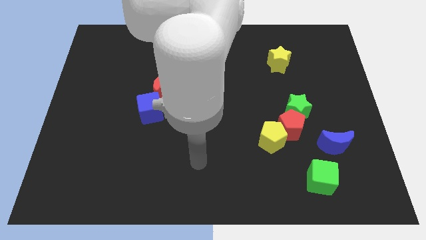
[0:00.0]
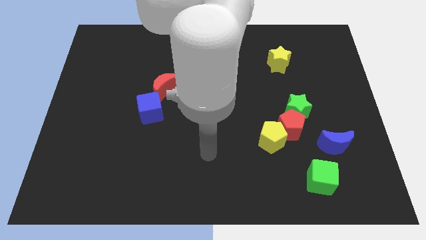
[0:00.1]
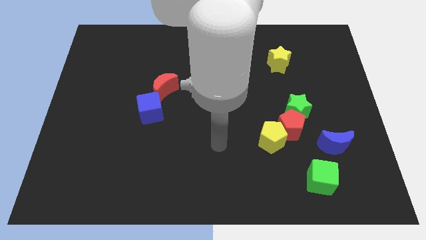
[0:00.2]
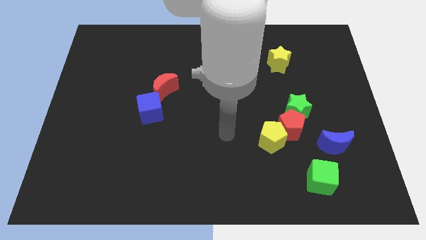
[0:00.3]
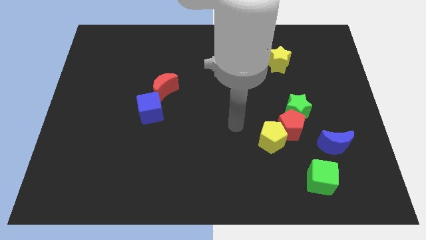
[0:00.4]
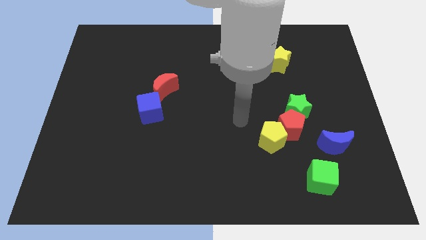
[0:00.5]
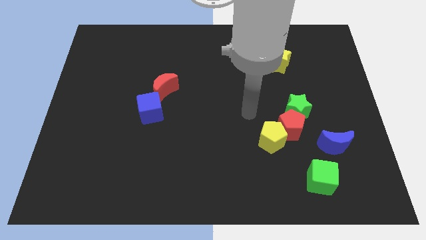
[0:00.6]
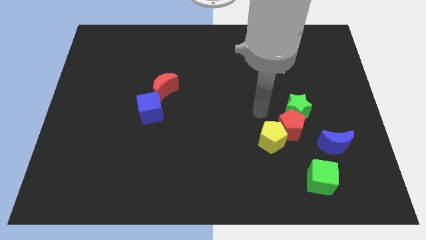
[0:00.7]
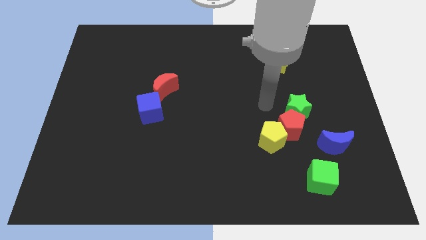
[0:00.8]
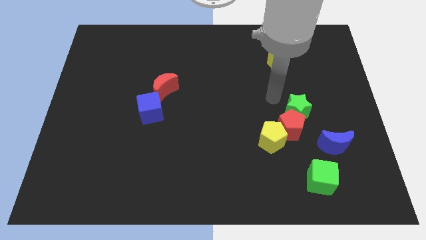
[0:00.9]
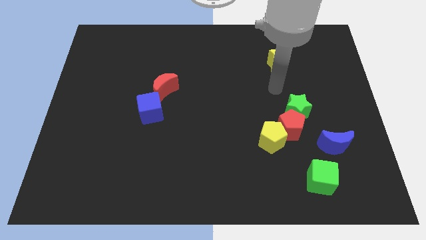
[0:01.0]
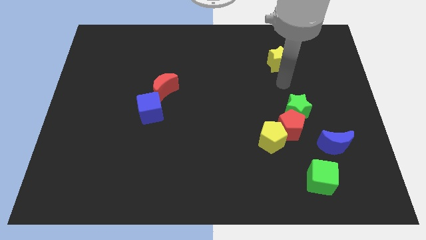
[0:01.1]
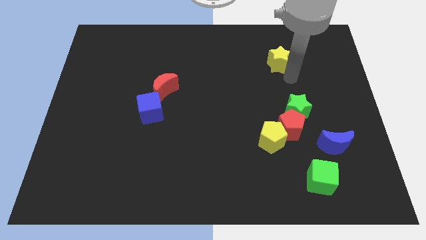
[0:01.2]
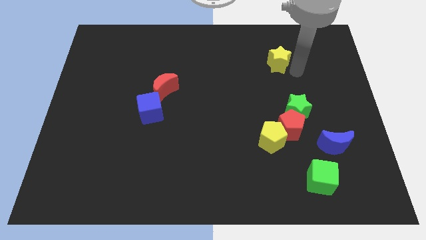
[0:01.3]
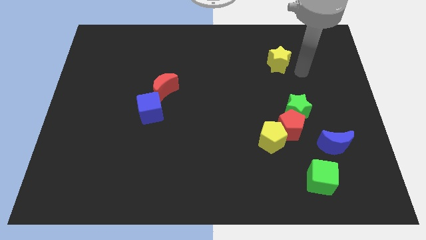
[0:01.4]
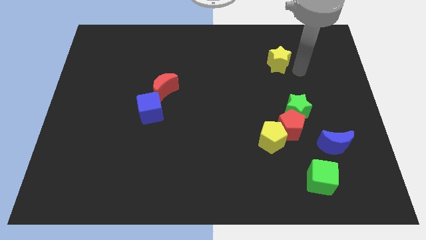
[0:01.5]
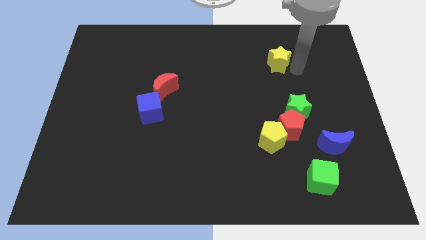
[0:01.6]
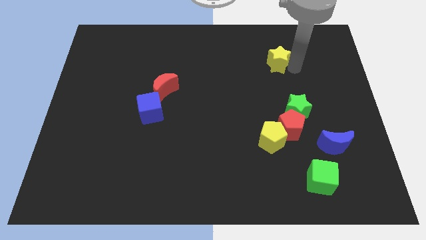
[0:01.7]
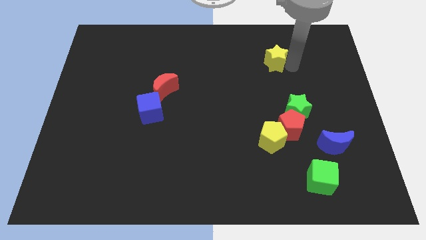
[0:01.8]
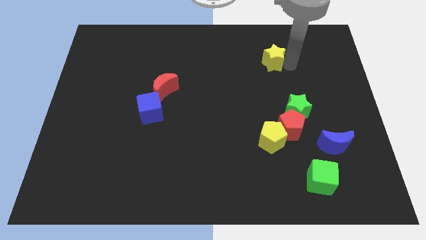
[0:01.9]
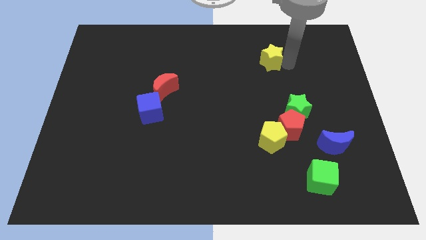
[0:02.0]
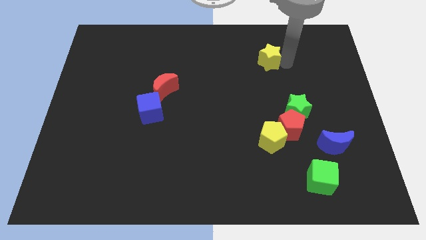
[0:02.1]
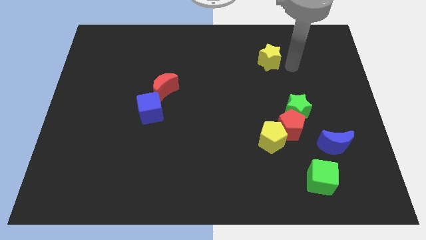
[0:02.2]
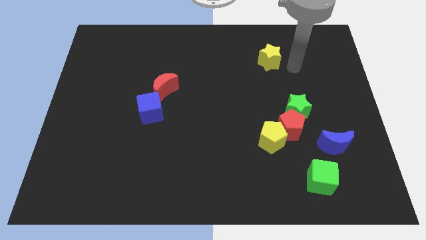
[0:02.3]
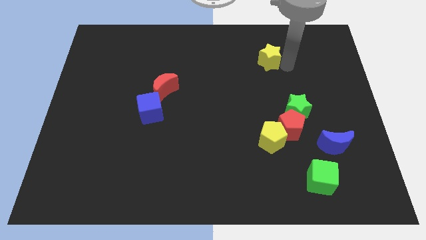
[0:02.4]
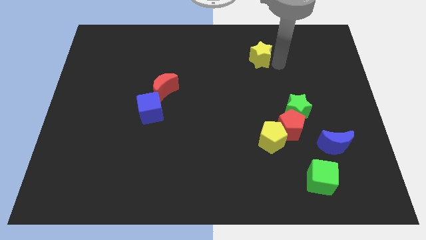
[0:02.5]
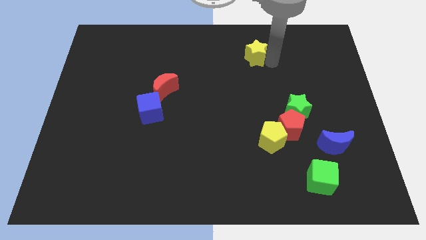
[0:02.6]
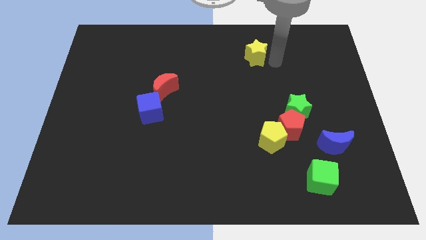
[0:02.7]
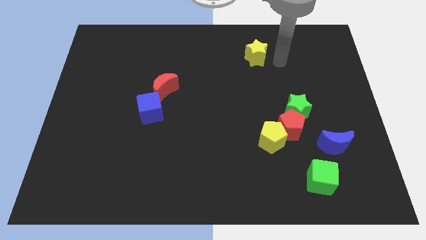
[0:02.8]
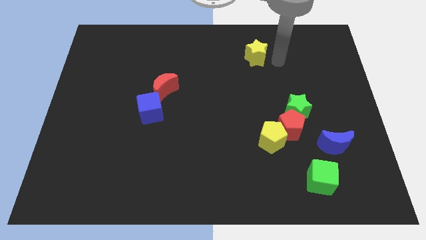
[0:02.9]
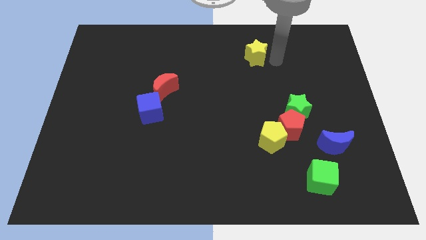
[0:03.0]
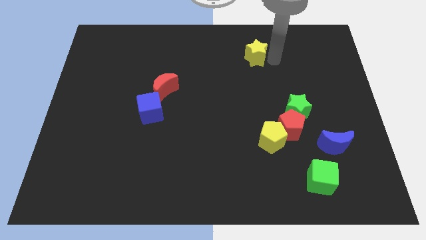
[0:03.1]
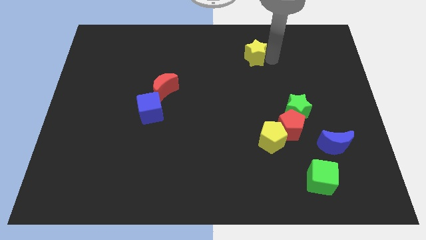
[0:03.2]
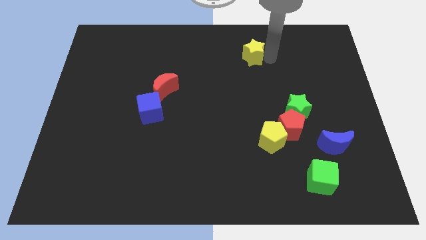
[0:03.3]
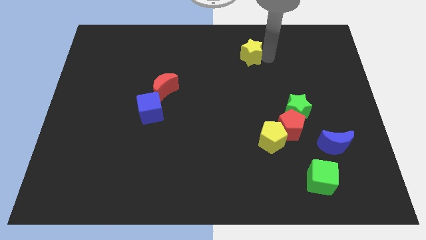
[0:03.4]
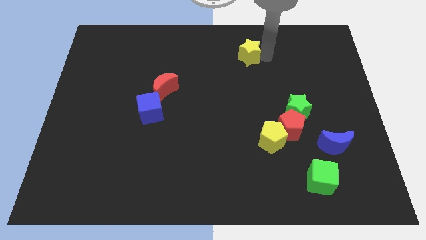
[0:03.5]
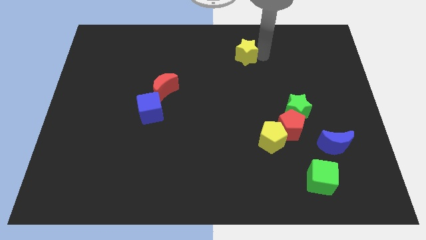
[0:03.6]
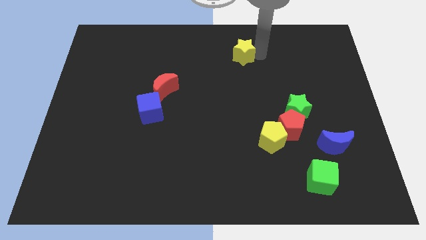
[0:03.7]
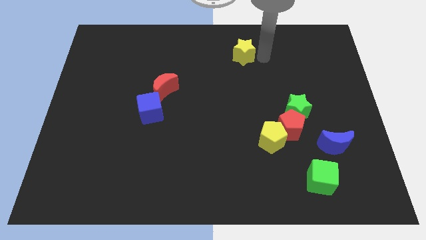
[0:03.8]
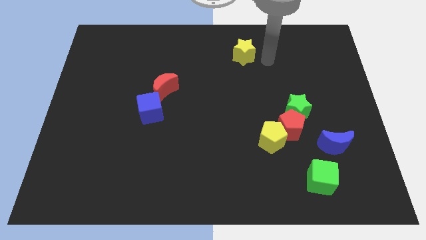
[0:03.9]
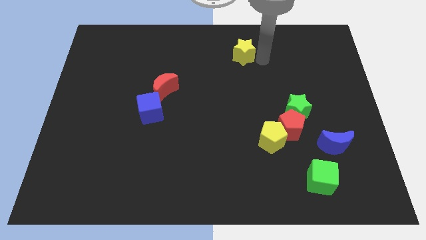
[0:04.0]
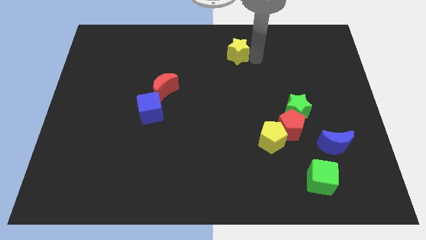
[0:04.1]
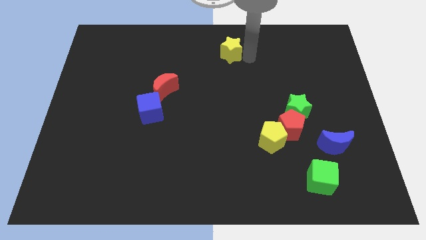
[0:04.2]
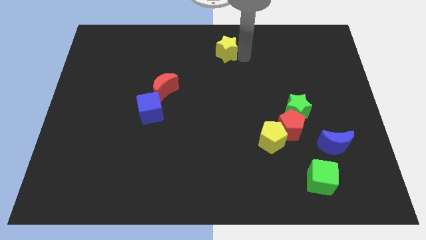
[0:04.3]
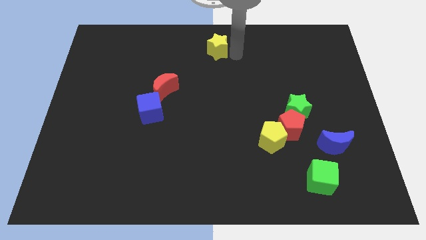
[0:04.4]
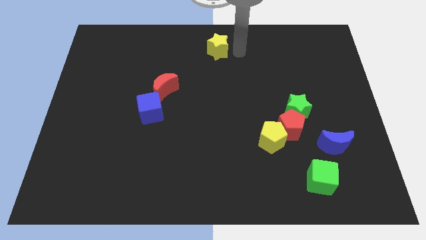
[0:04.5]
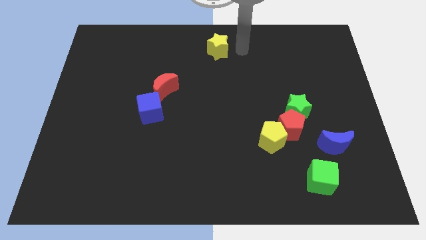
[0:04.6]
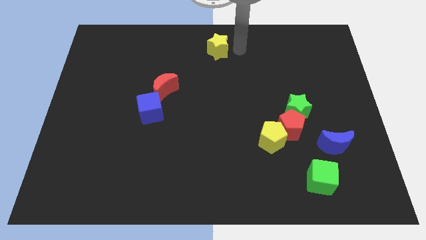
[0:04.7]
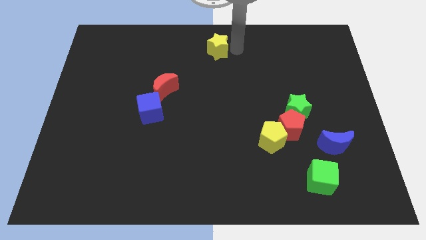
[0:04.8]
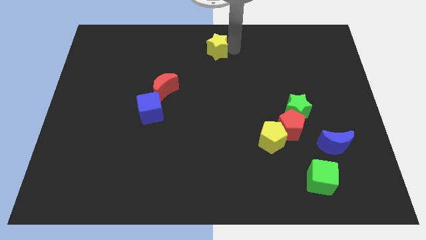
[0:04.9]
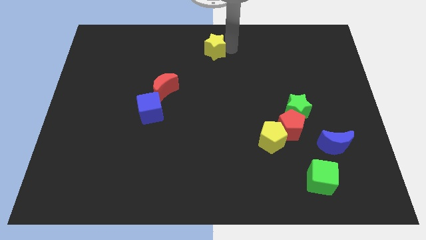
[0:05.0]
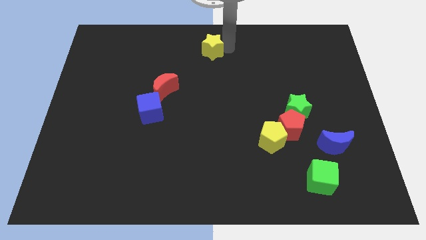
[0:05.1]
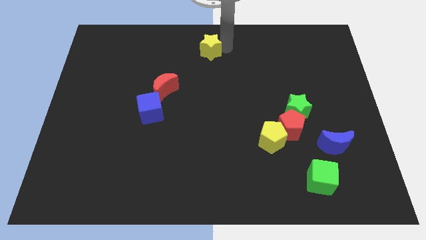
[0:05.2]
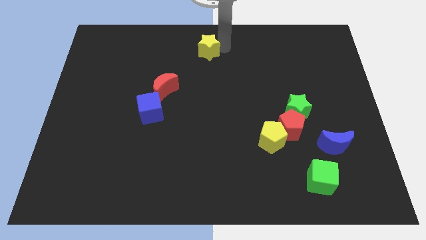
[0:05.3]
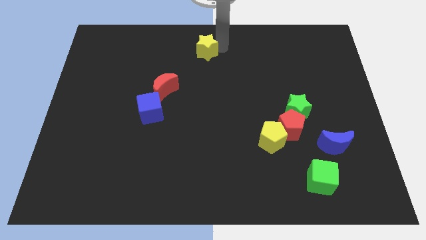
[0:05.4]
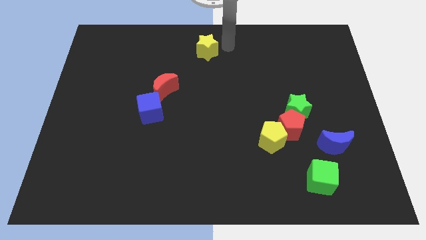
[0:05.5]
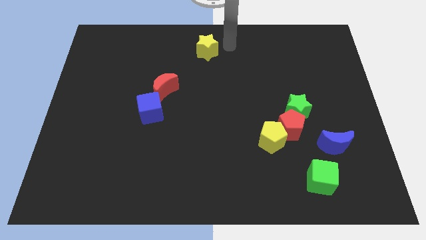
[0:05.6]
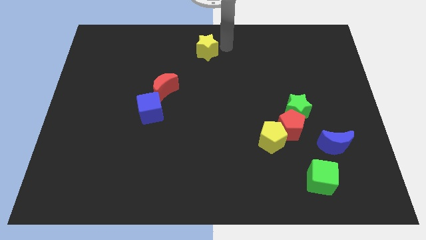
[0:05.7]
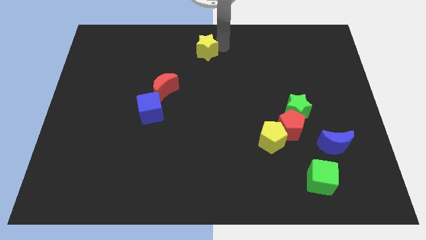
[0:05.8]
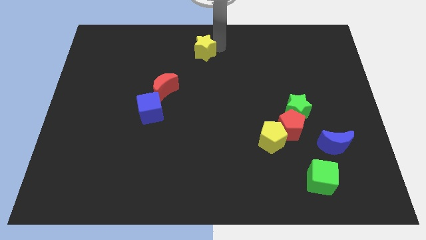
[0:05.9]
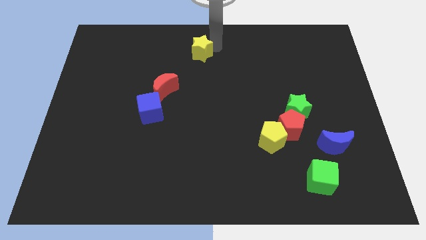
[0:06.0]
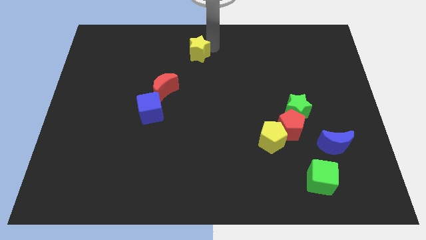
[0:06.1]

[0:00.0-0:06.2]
push the yellow star left

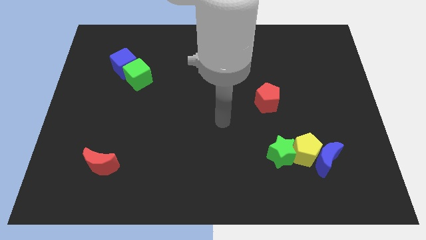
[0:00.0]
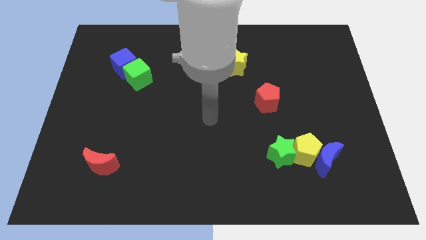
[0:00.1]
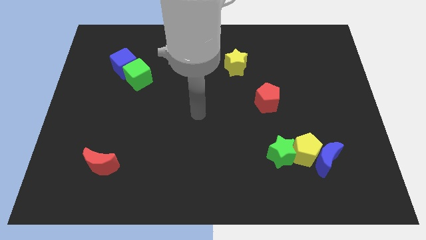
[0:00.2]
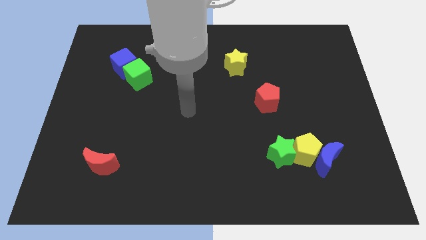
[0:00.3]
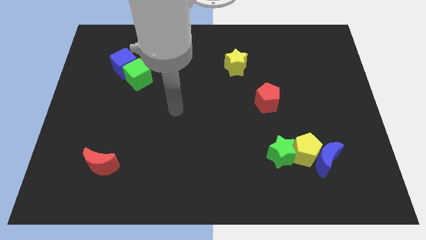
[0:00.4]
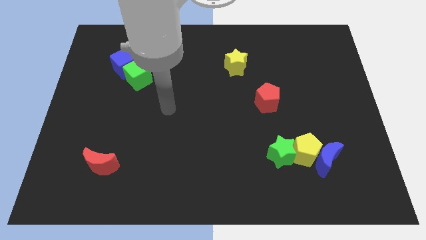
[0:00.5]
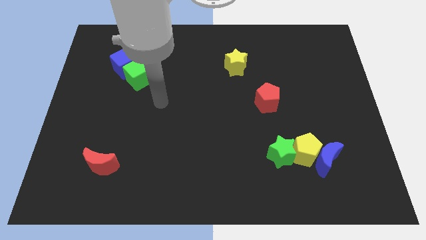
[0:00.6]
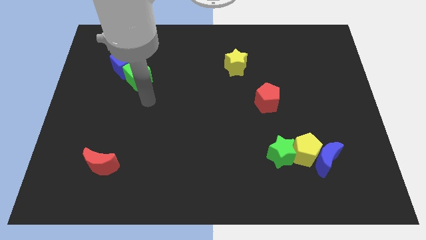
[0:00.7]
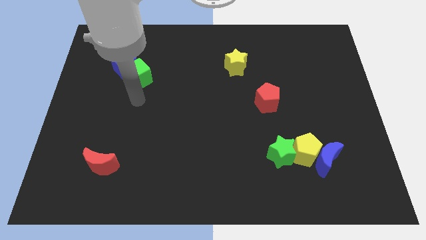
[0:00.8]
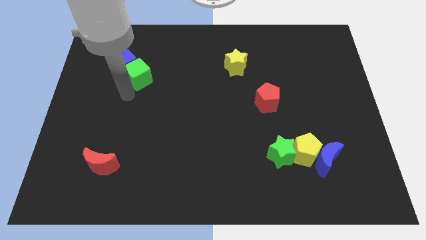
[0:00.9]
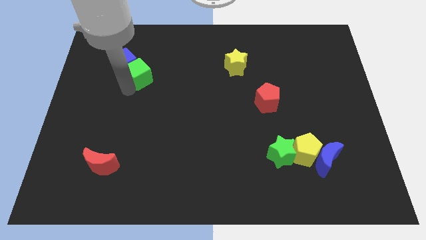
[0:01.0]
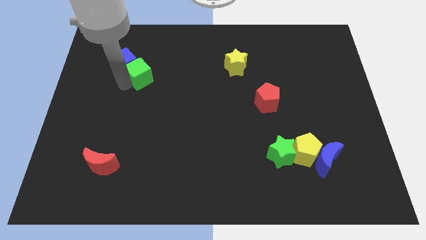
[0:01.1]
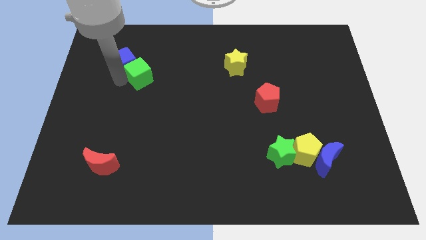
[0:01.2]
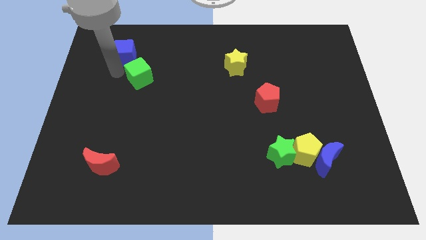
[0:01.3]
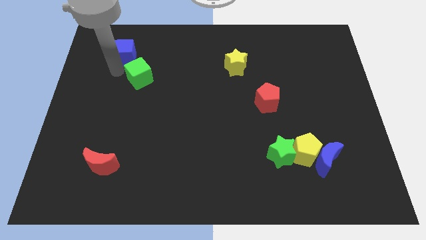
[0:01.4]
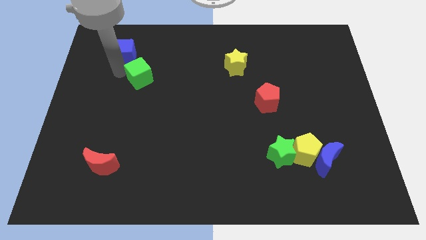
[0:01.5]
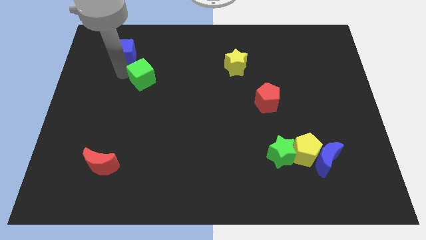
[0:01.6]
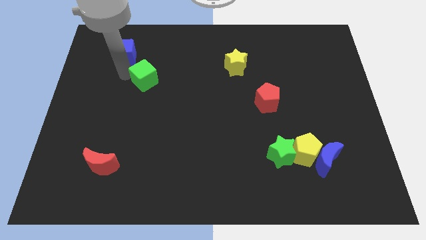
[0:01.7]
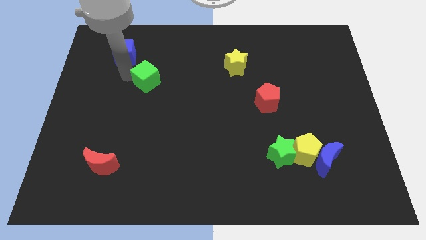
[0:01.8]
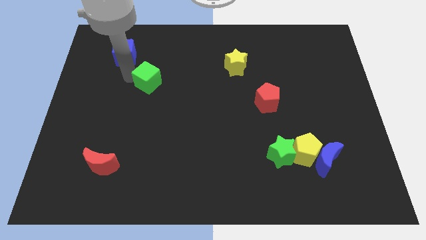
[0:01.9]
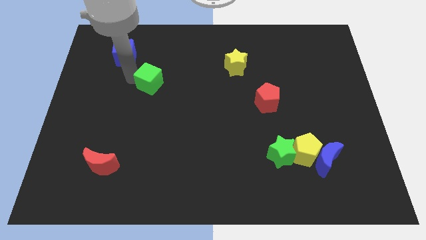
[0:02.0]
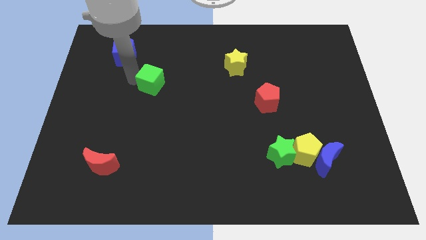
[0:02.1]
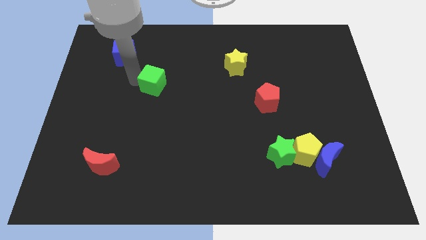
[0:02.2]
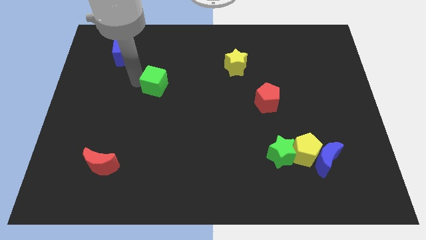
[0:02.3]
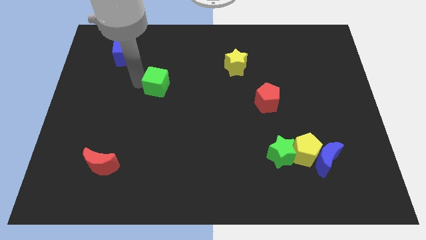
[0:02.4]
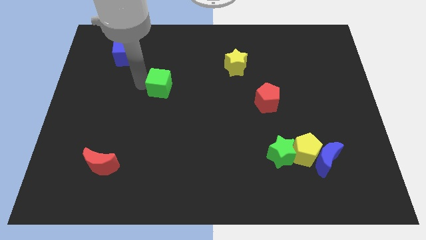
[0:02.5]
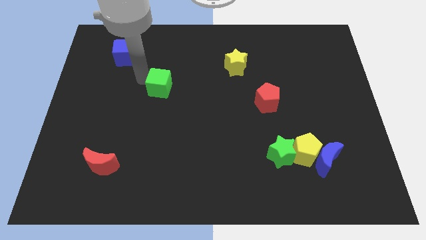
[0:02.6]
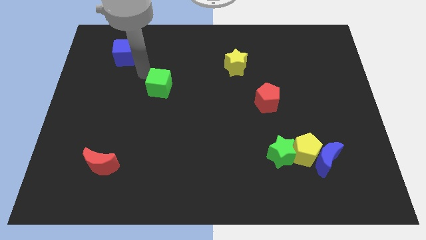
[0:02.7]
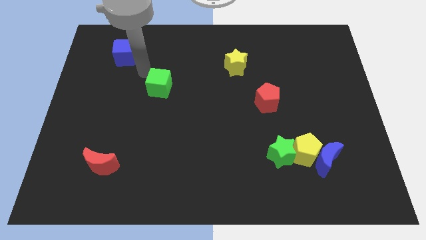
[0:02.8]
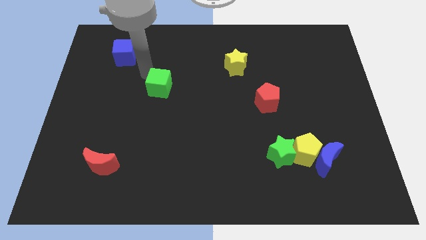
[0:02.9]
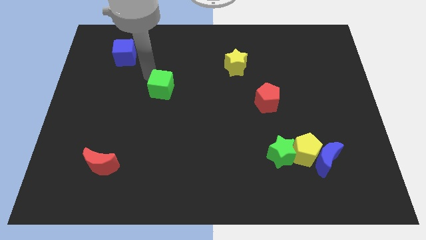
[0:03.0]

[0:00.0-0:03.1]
slide the green cube a little bit downwards and right diagonally
